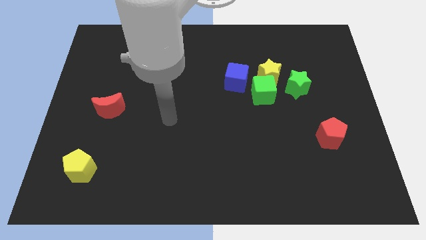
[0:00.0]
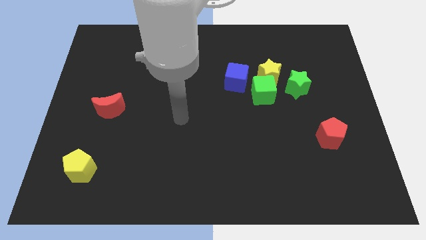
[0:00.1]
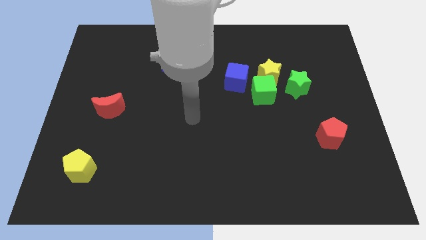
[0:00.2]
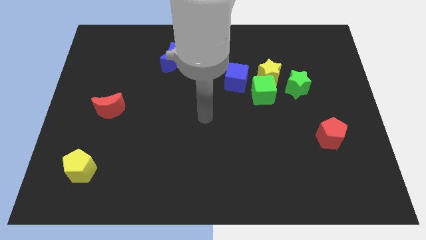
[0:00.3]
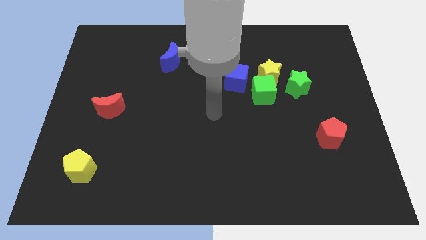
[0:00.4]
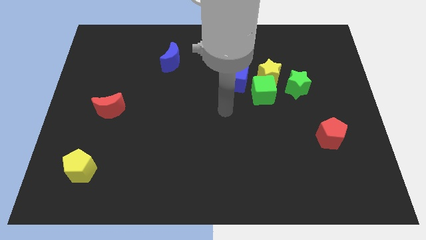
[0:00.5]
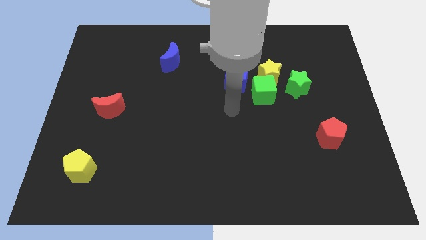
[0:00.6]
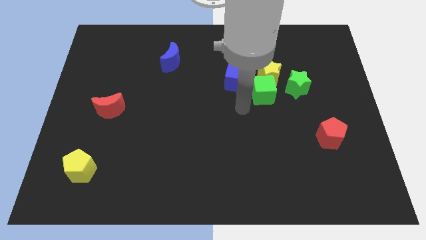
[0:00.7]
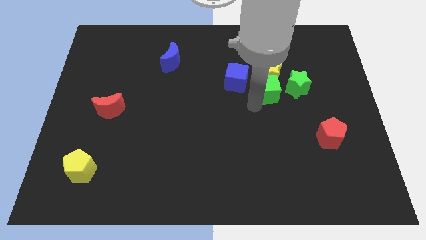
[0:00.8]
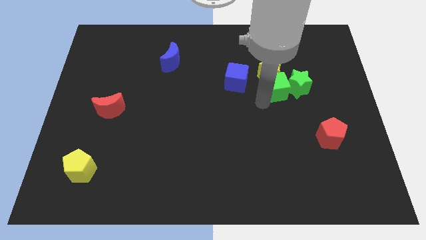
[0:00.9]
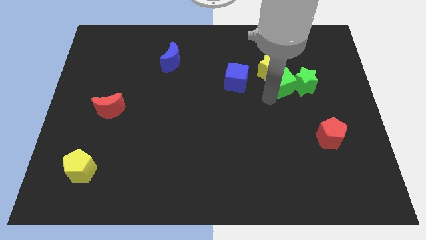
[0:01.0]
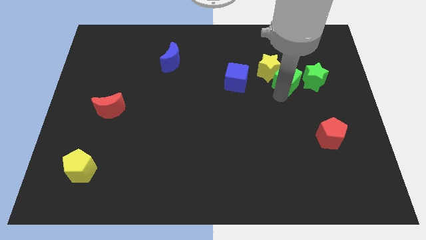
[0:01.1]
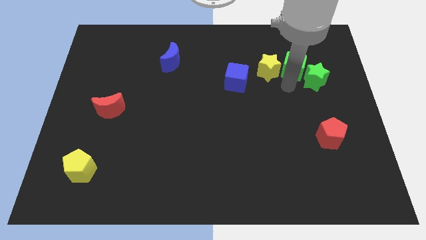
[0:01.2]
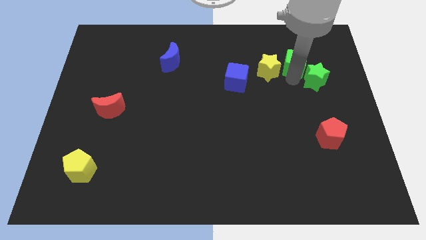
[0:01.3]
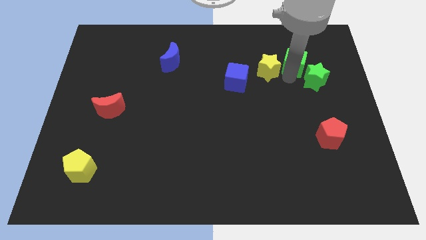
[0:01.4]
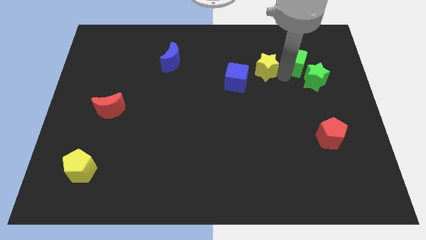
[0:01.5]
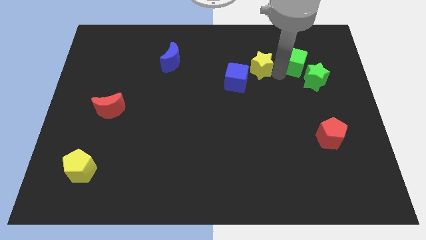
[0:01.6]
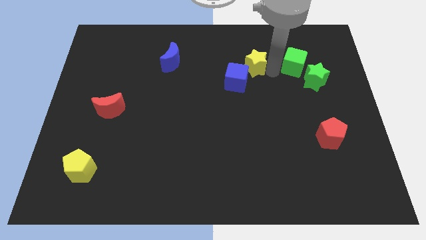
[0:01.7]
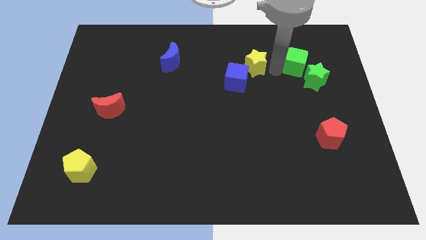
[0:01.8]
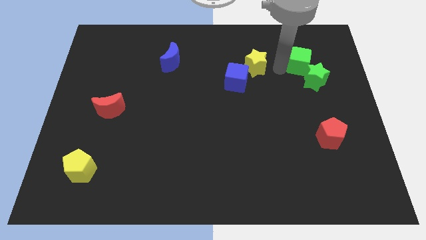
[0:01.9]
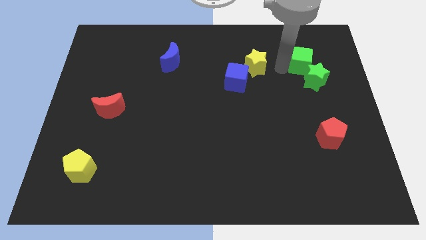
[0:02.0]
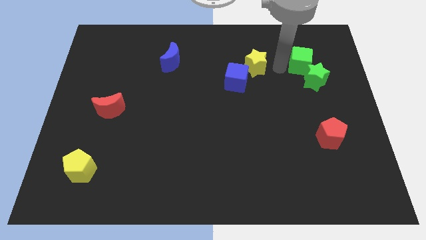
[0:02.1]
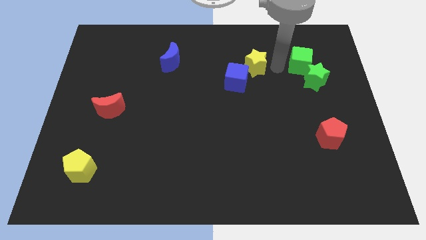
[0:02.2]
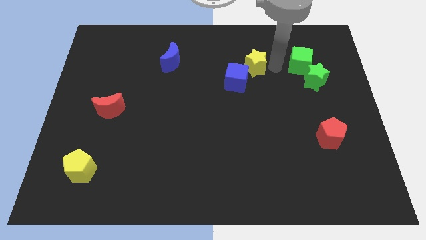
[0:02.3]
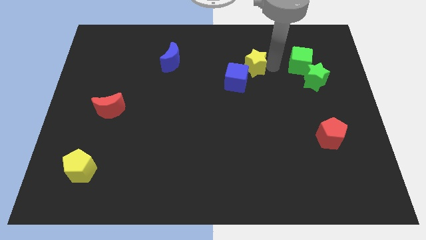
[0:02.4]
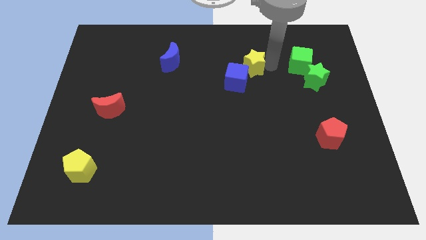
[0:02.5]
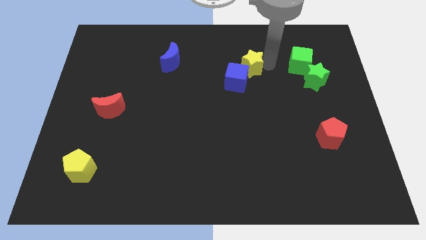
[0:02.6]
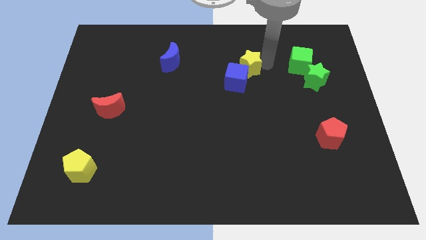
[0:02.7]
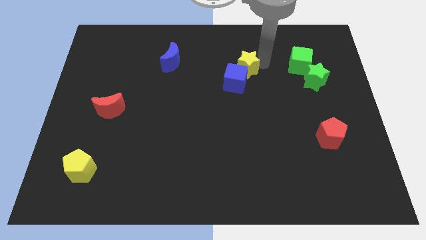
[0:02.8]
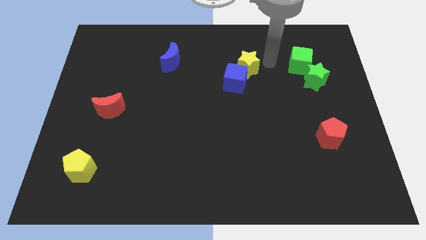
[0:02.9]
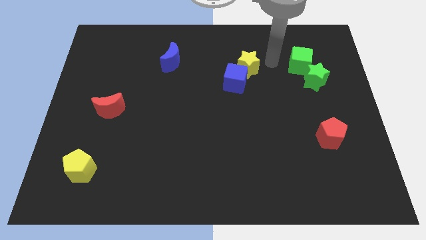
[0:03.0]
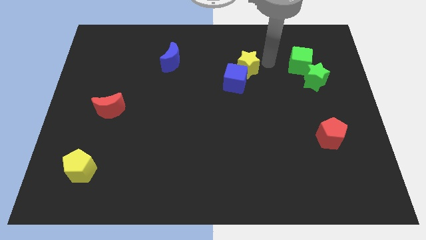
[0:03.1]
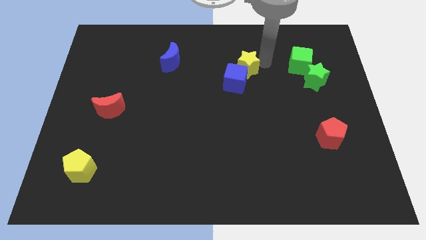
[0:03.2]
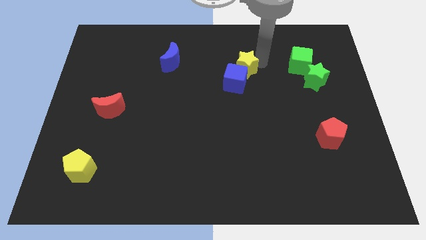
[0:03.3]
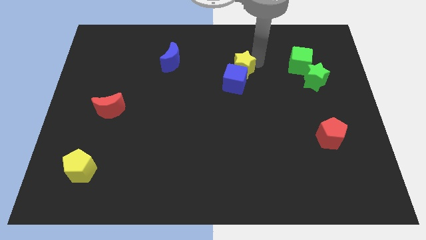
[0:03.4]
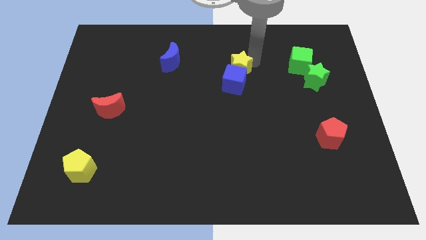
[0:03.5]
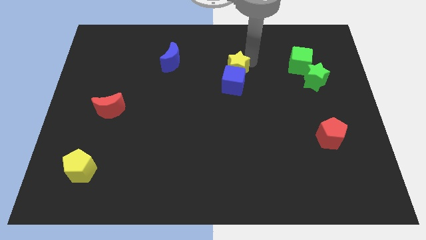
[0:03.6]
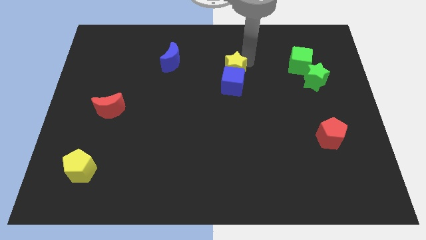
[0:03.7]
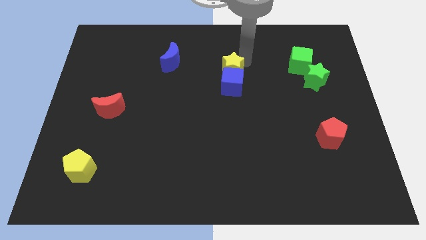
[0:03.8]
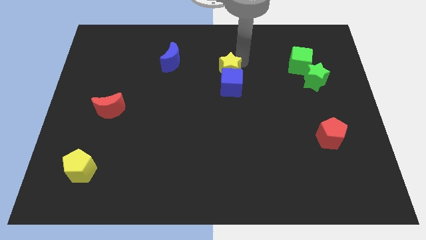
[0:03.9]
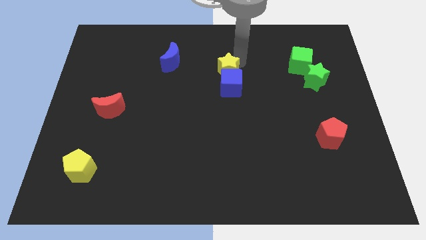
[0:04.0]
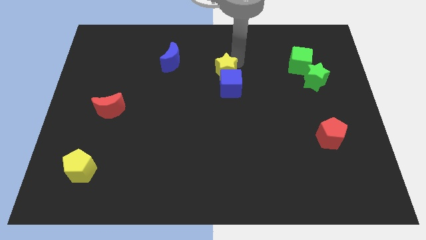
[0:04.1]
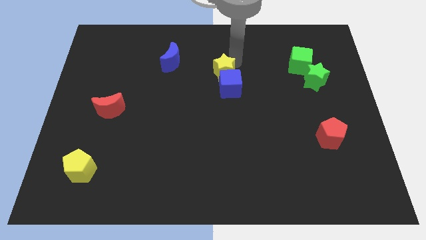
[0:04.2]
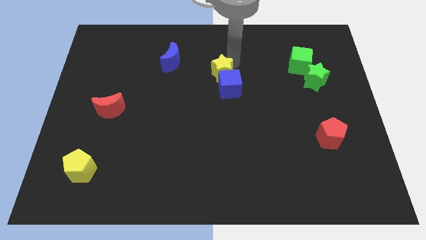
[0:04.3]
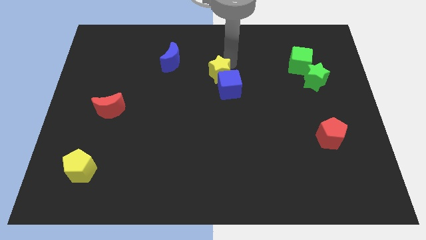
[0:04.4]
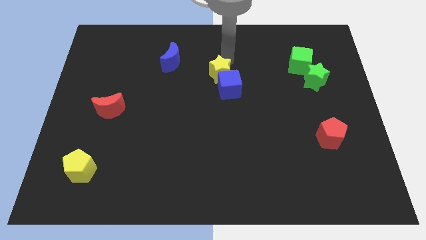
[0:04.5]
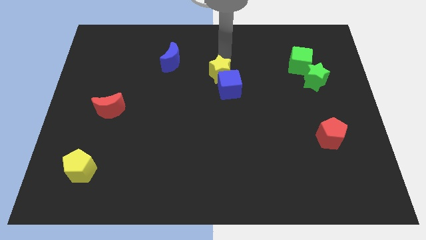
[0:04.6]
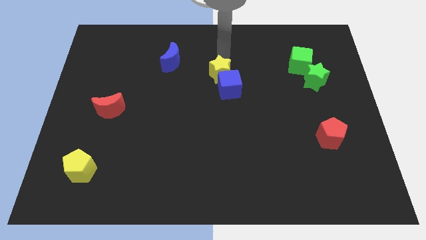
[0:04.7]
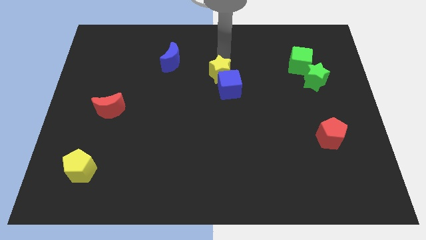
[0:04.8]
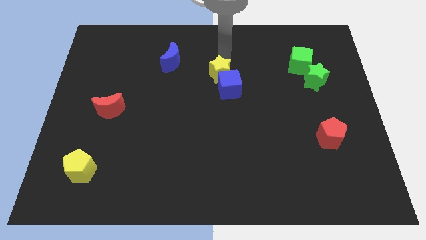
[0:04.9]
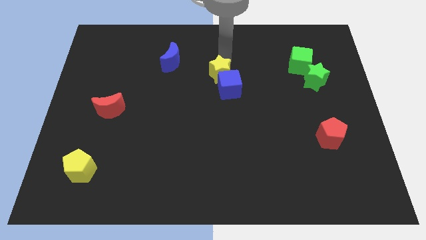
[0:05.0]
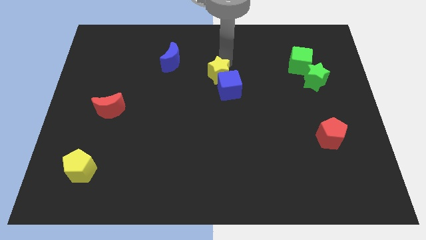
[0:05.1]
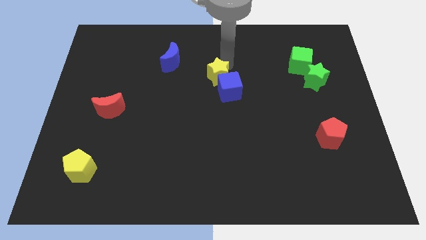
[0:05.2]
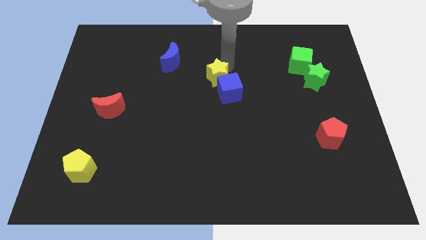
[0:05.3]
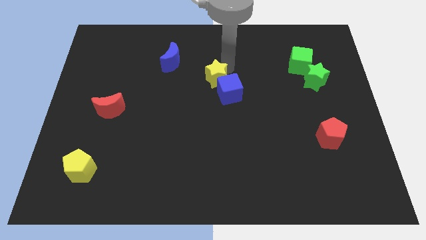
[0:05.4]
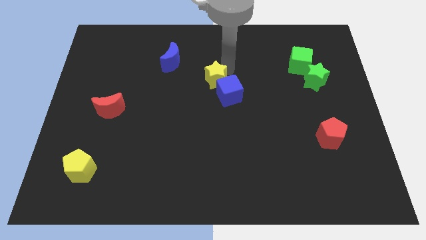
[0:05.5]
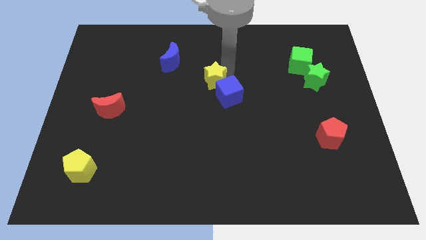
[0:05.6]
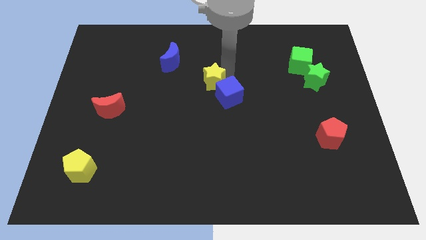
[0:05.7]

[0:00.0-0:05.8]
move the yellow star slightly downwards and to the left diagonally

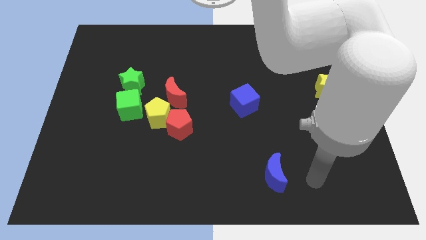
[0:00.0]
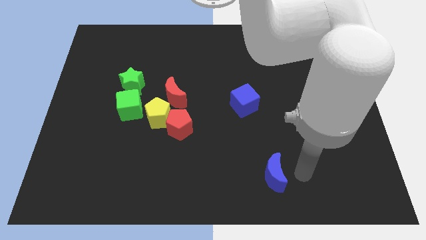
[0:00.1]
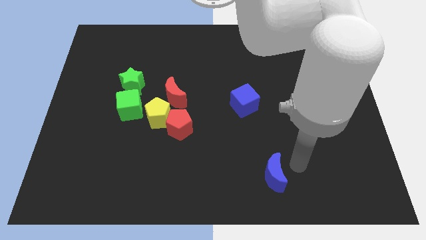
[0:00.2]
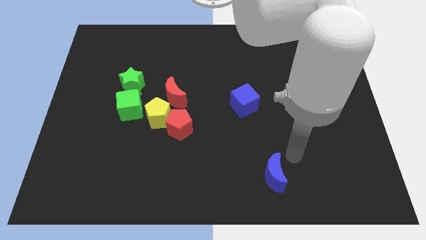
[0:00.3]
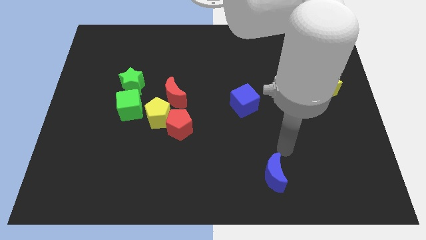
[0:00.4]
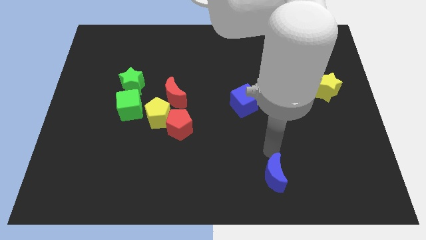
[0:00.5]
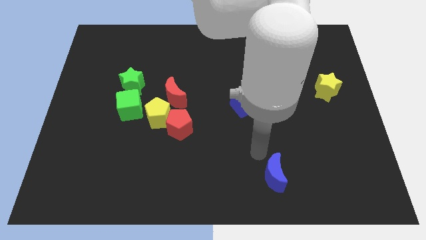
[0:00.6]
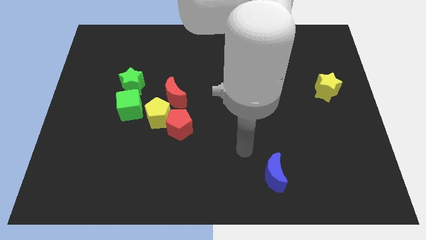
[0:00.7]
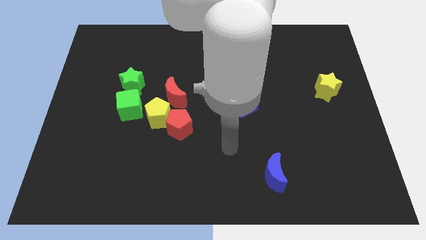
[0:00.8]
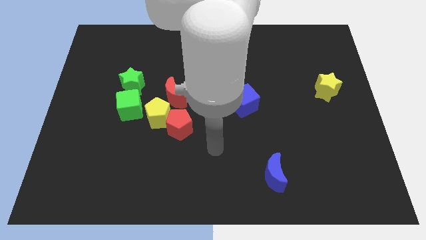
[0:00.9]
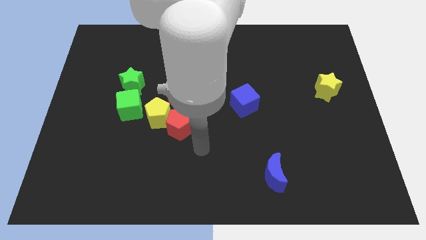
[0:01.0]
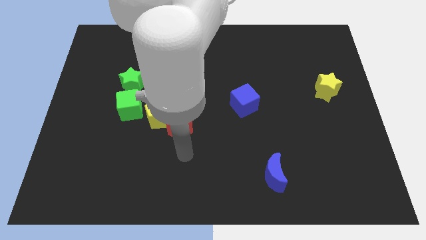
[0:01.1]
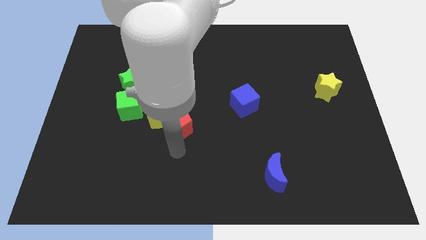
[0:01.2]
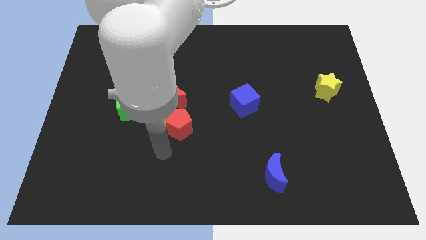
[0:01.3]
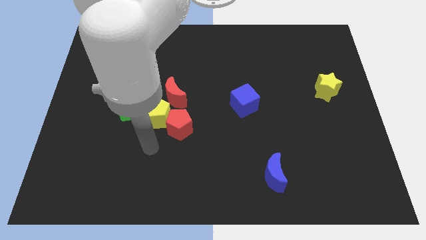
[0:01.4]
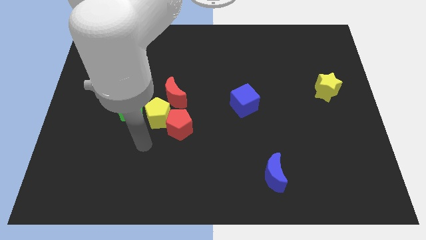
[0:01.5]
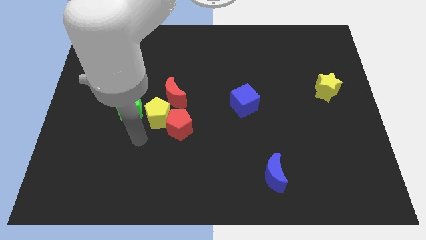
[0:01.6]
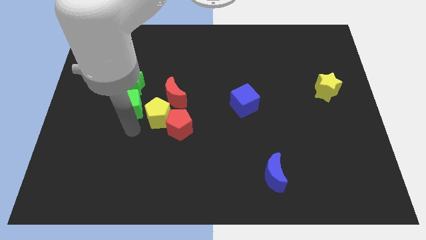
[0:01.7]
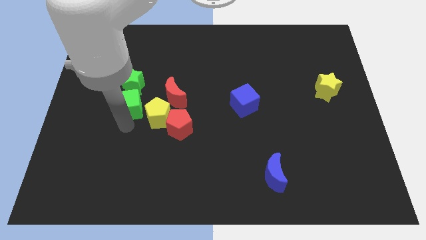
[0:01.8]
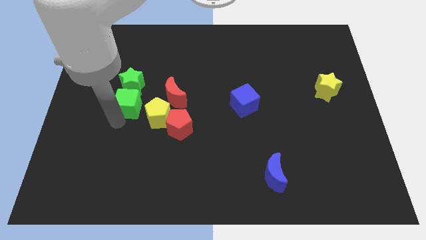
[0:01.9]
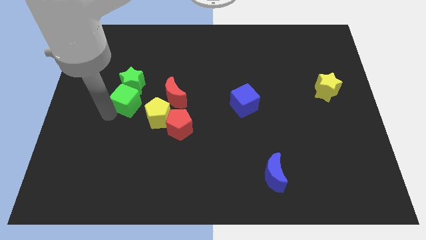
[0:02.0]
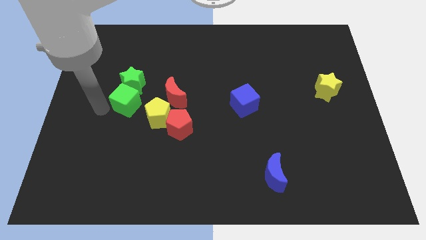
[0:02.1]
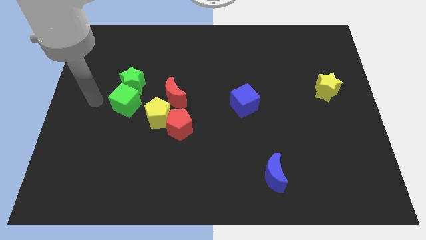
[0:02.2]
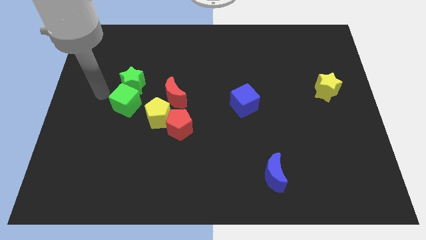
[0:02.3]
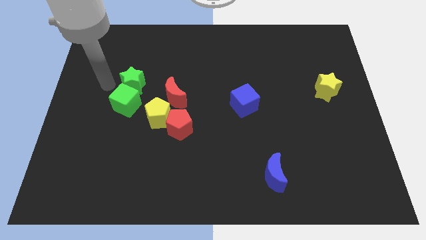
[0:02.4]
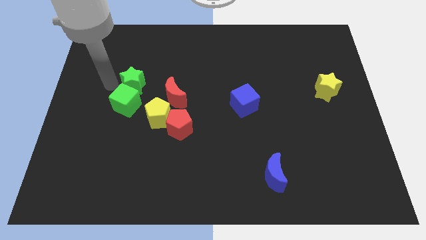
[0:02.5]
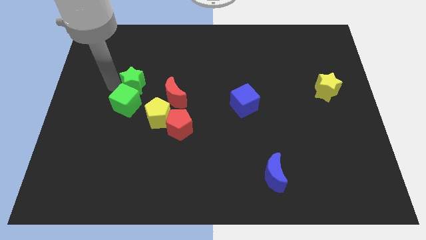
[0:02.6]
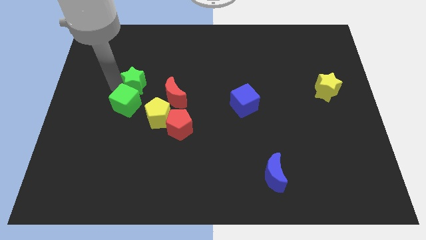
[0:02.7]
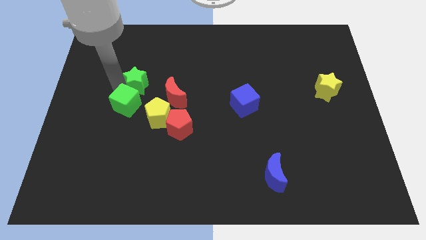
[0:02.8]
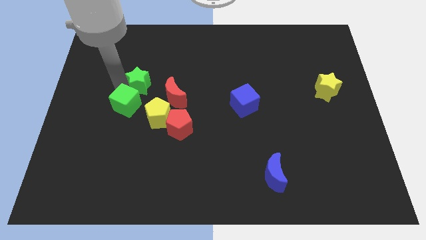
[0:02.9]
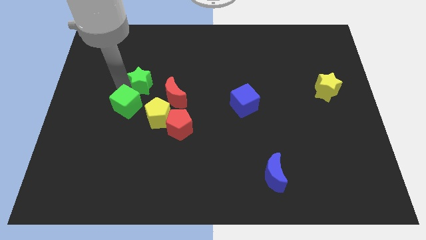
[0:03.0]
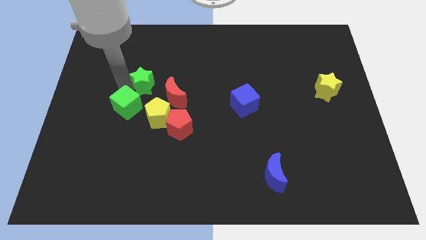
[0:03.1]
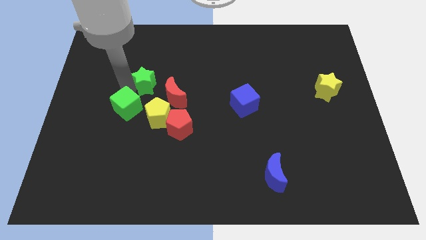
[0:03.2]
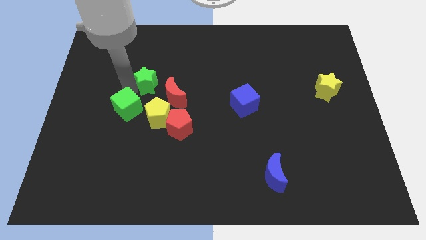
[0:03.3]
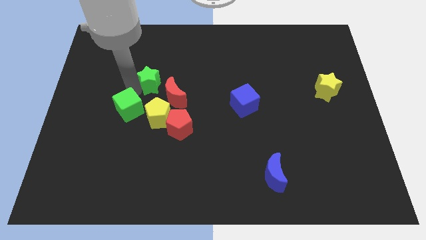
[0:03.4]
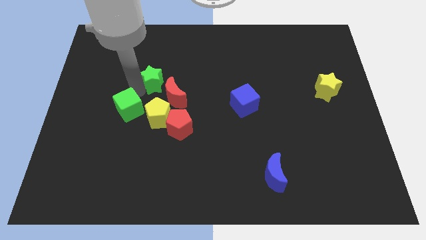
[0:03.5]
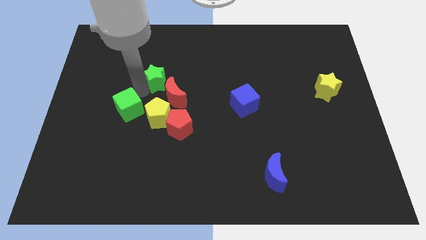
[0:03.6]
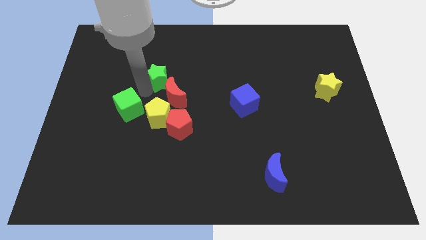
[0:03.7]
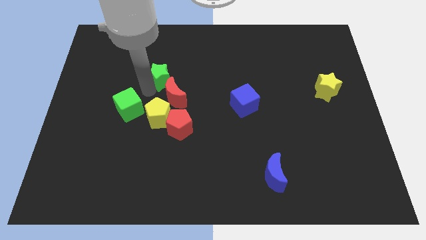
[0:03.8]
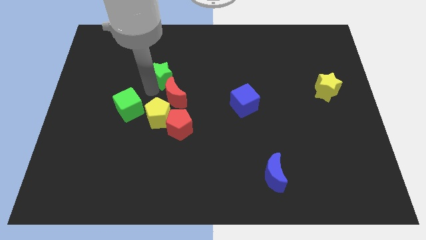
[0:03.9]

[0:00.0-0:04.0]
slightly slide the green star to the right
